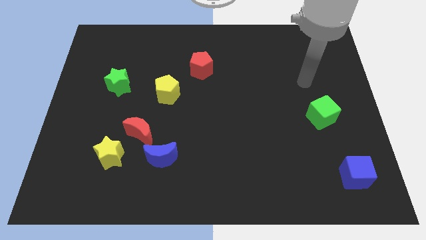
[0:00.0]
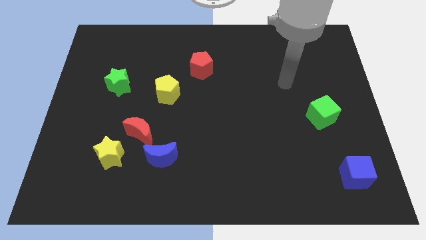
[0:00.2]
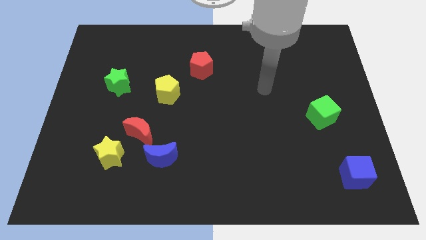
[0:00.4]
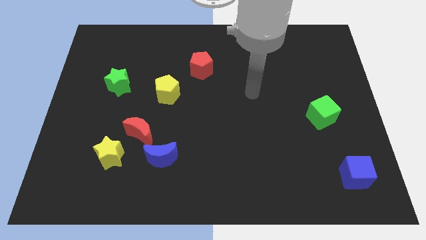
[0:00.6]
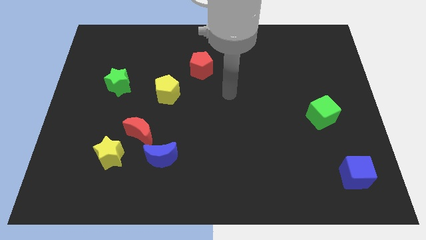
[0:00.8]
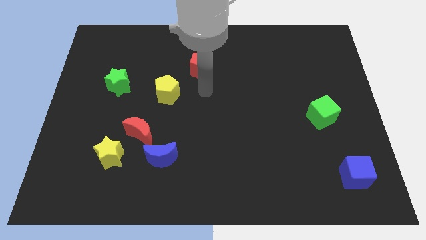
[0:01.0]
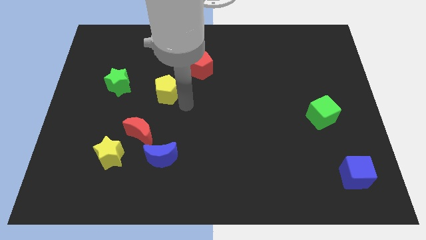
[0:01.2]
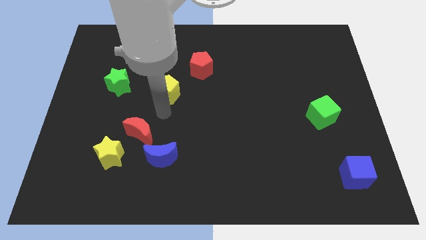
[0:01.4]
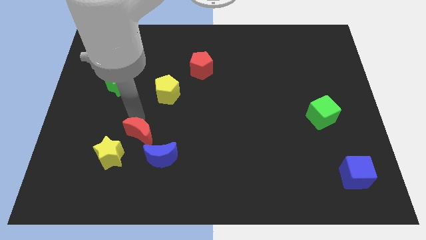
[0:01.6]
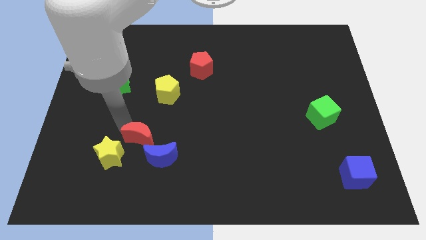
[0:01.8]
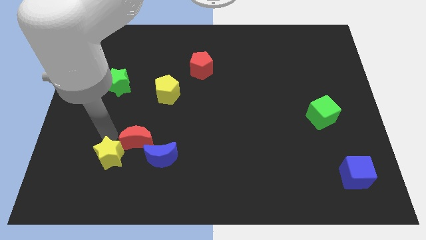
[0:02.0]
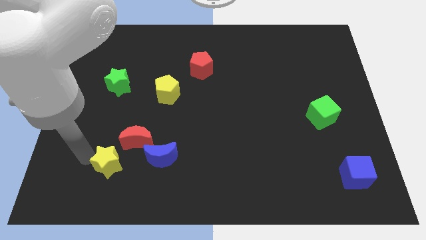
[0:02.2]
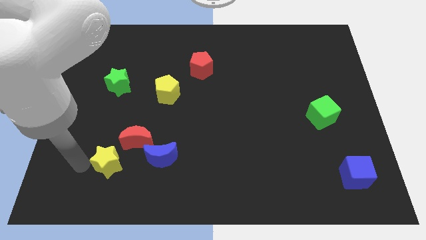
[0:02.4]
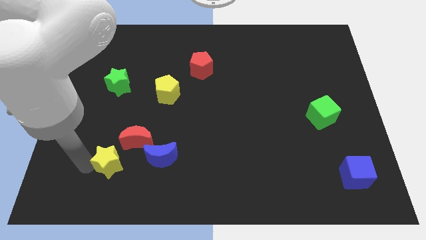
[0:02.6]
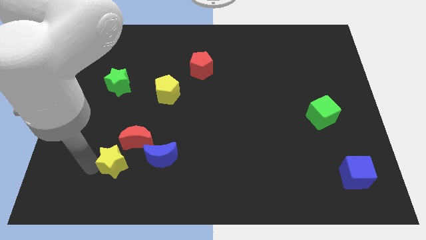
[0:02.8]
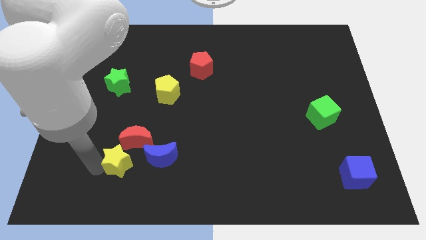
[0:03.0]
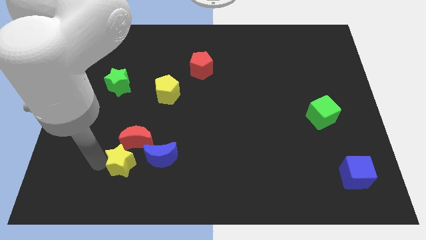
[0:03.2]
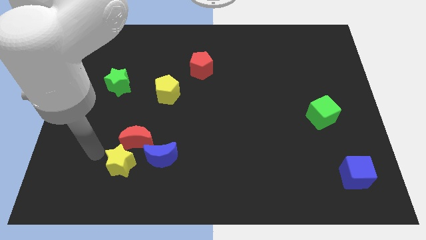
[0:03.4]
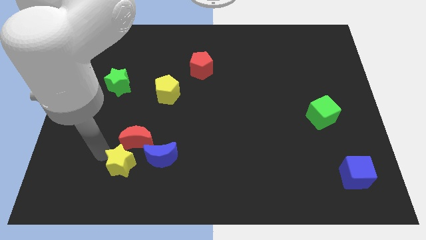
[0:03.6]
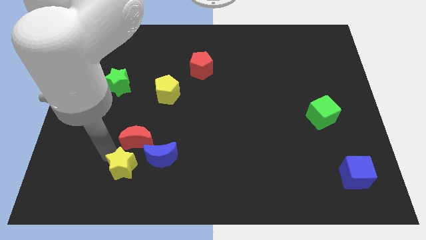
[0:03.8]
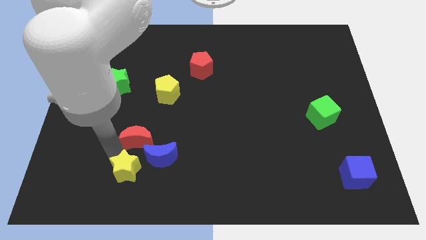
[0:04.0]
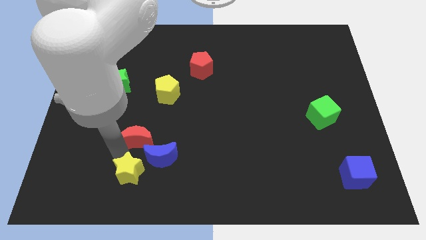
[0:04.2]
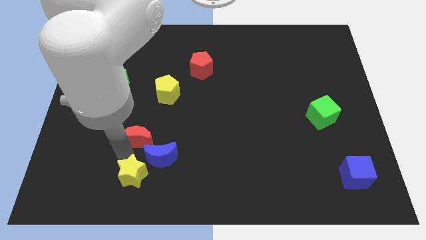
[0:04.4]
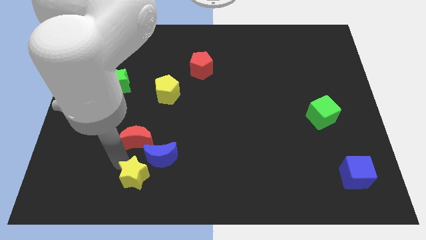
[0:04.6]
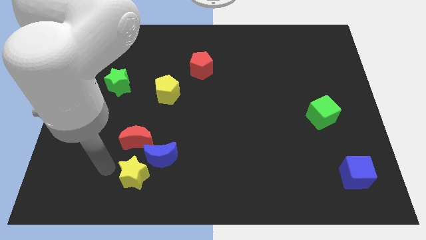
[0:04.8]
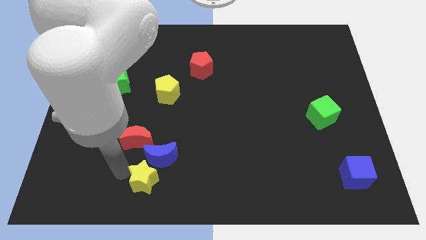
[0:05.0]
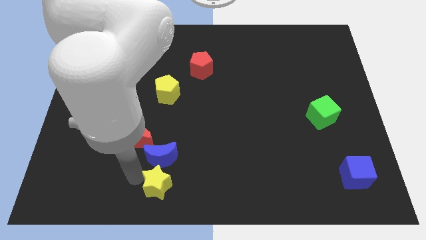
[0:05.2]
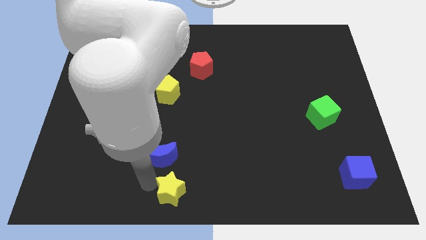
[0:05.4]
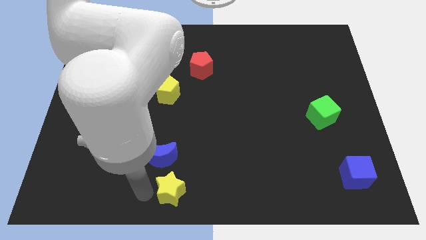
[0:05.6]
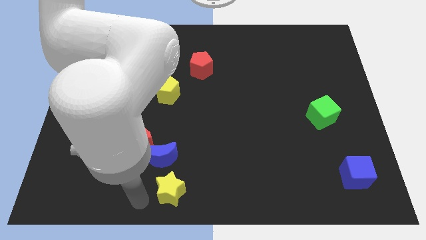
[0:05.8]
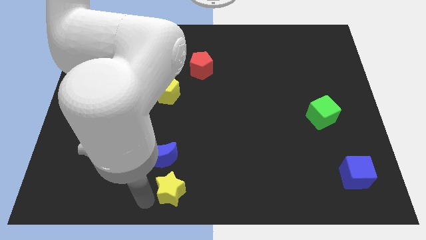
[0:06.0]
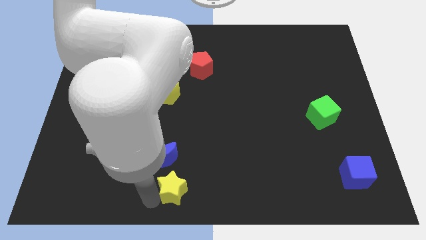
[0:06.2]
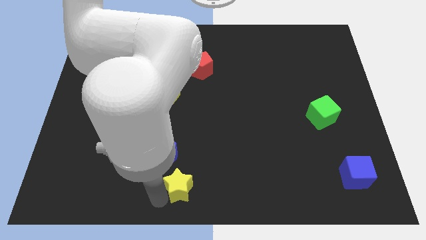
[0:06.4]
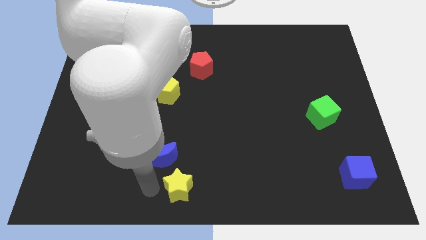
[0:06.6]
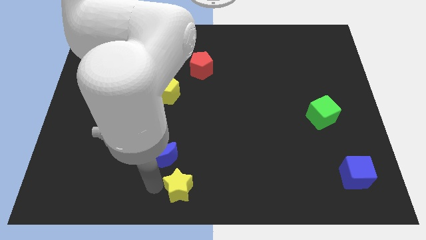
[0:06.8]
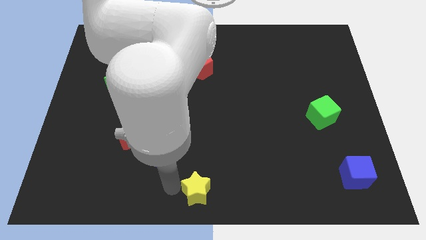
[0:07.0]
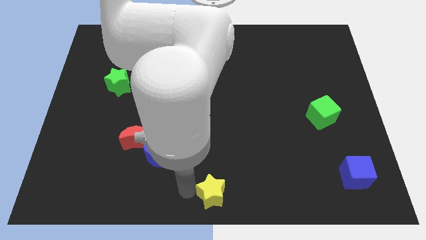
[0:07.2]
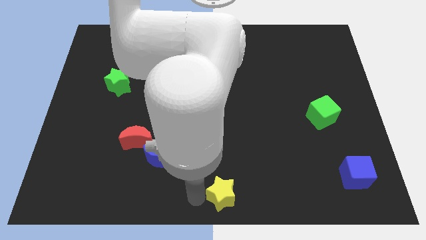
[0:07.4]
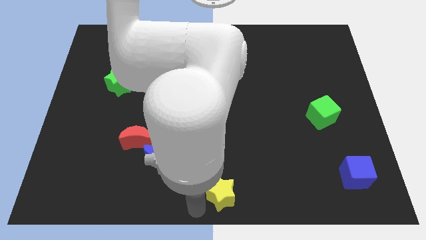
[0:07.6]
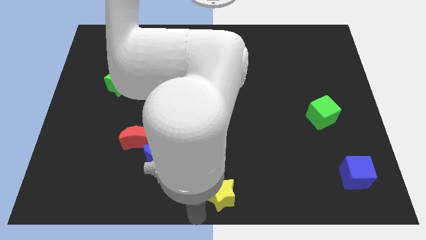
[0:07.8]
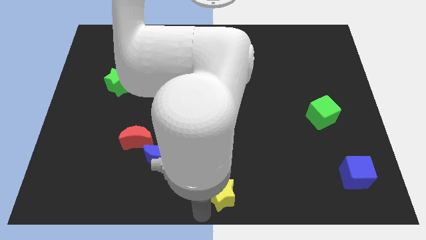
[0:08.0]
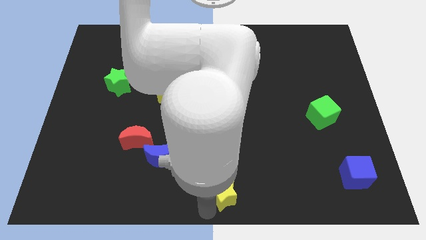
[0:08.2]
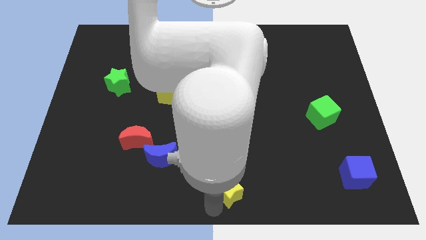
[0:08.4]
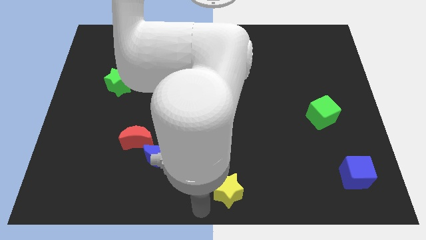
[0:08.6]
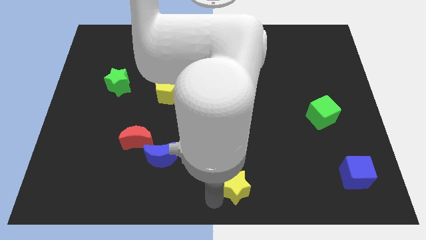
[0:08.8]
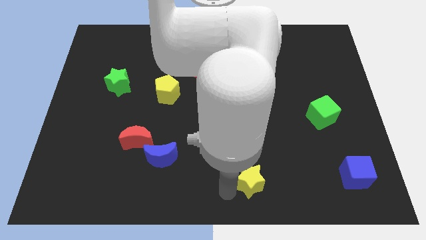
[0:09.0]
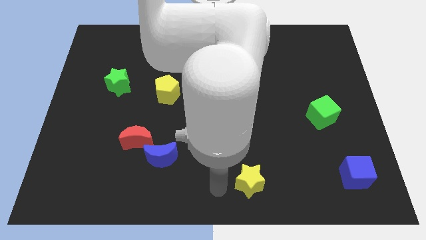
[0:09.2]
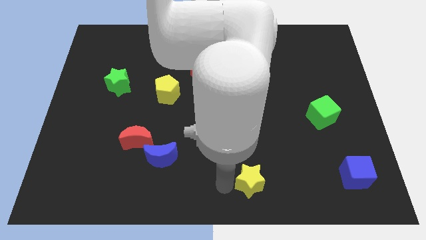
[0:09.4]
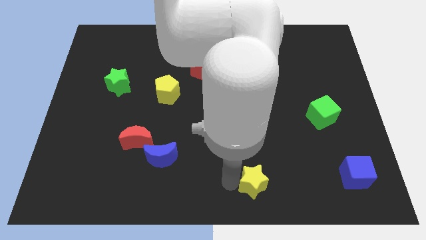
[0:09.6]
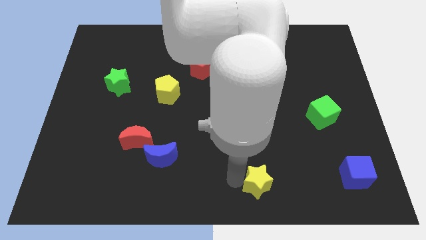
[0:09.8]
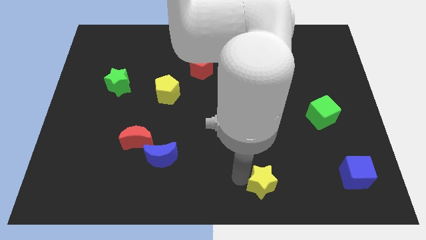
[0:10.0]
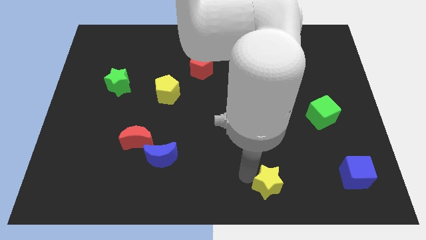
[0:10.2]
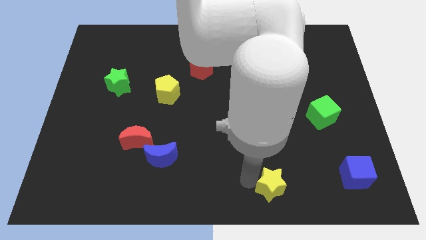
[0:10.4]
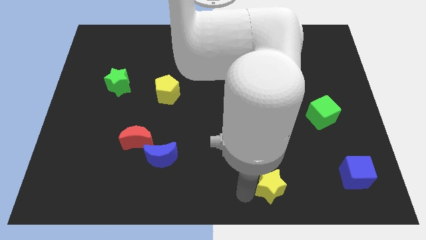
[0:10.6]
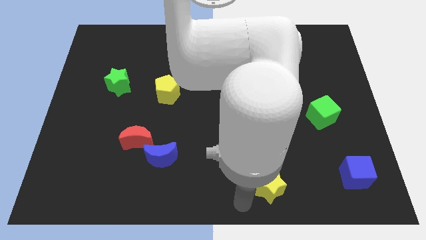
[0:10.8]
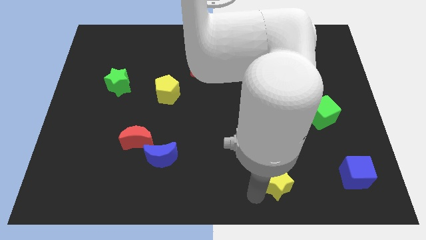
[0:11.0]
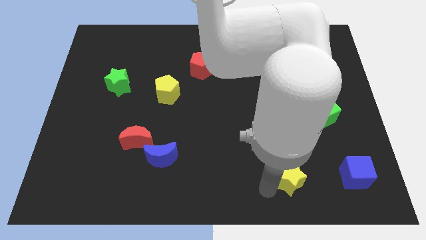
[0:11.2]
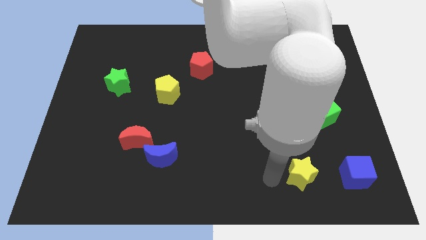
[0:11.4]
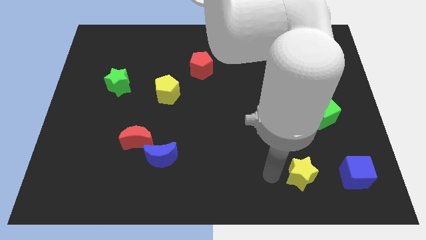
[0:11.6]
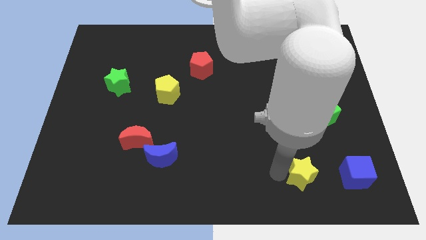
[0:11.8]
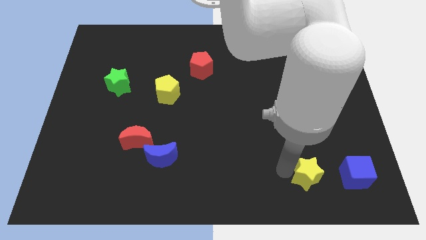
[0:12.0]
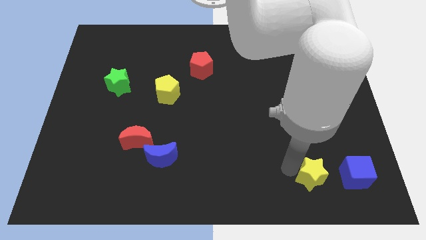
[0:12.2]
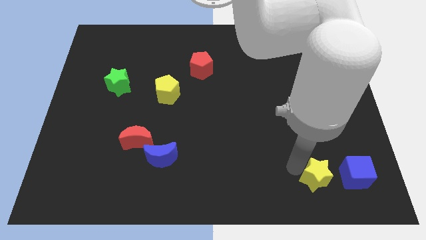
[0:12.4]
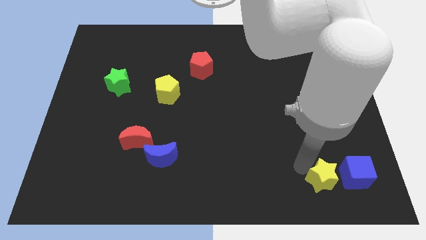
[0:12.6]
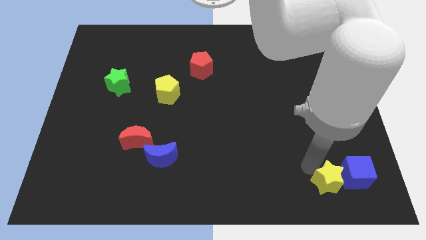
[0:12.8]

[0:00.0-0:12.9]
move the yellow star close to the blue cube

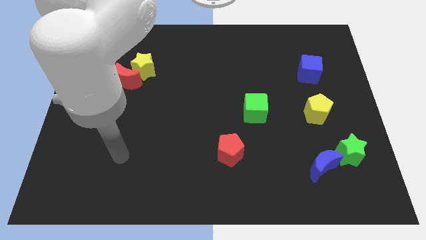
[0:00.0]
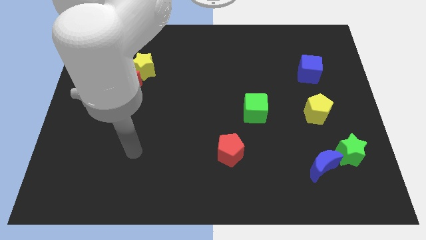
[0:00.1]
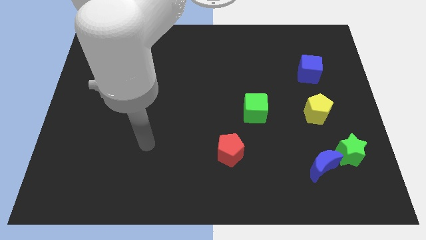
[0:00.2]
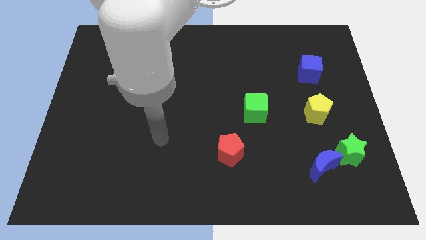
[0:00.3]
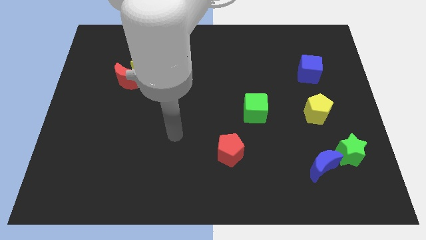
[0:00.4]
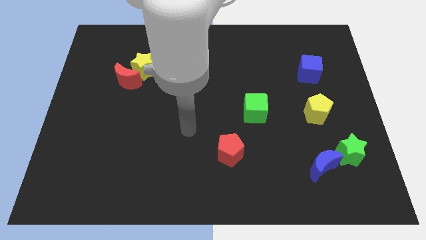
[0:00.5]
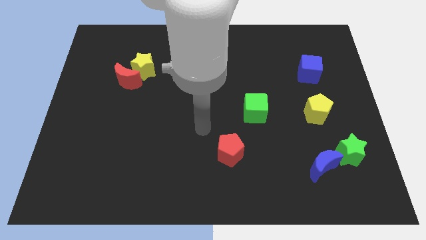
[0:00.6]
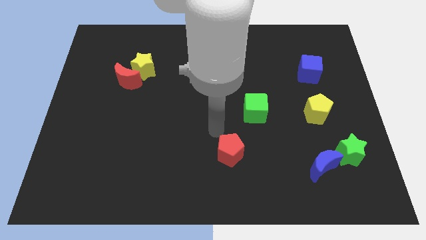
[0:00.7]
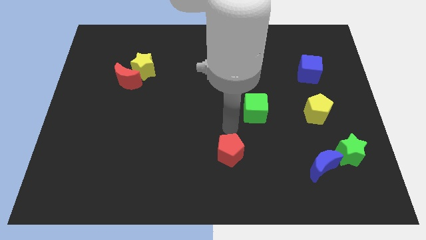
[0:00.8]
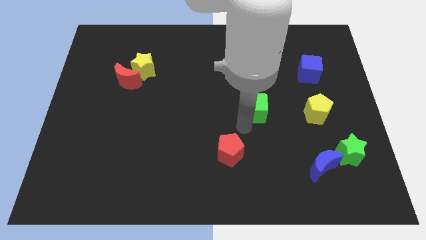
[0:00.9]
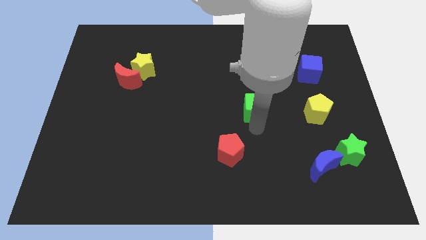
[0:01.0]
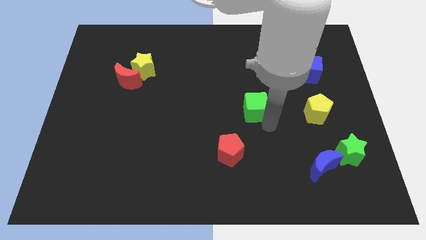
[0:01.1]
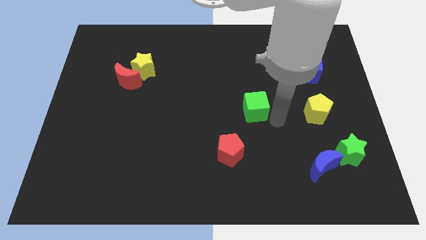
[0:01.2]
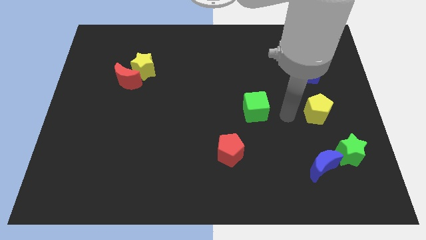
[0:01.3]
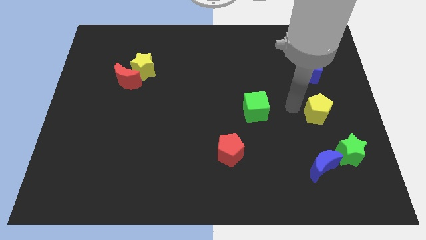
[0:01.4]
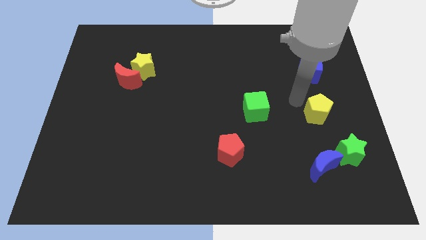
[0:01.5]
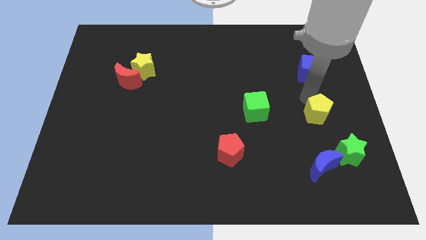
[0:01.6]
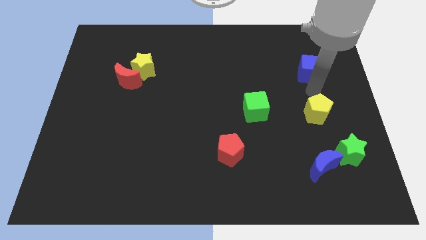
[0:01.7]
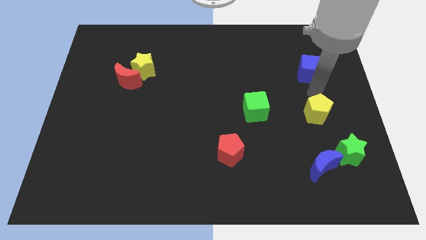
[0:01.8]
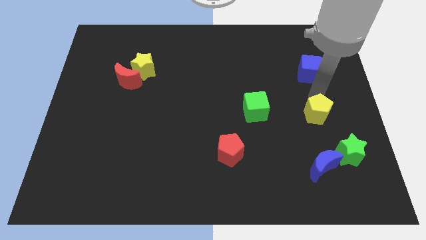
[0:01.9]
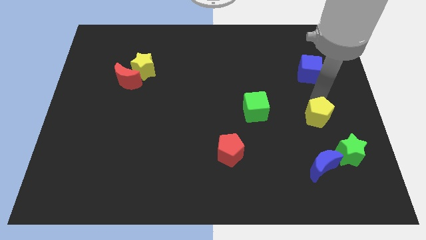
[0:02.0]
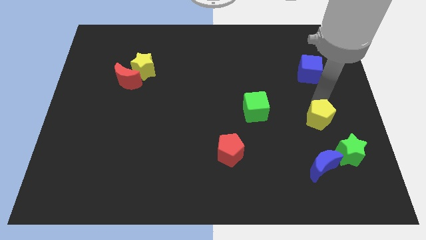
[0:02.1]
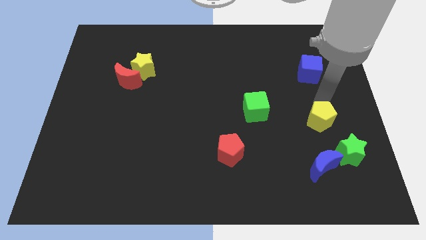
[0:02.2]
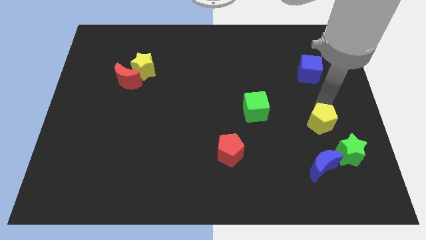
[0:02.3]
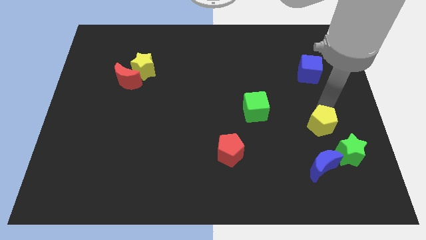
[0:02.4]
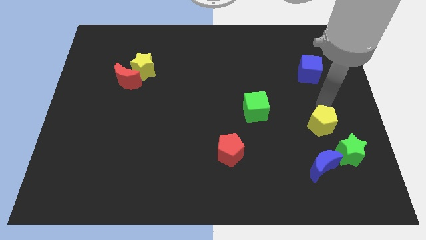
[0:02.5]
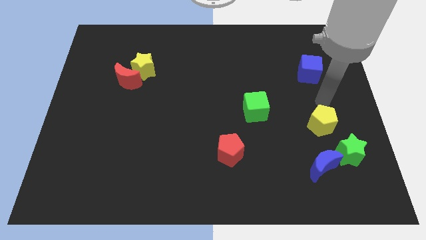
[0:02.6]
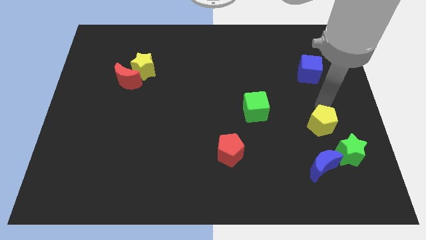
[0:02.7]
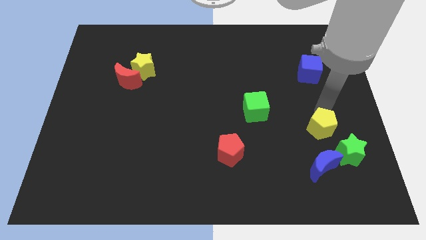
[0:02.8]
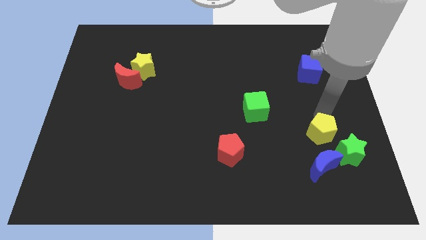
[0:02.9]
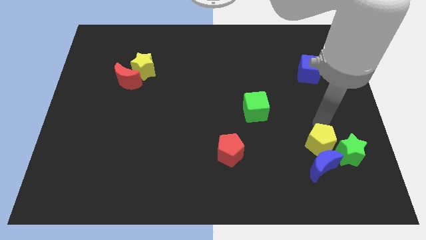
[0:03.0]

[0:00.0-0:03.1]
move the yellow pentagon towards the blue moon
